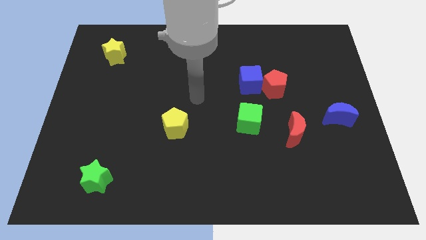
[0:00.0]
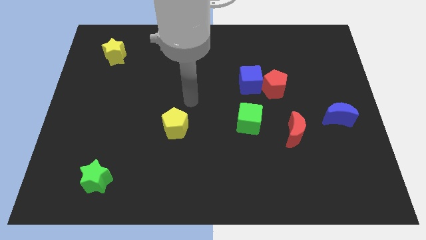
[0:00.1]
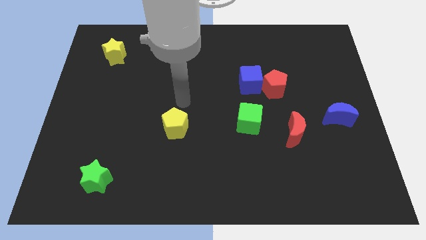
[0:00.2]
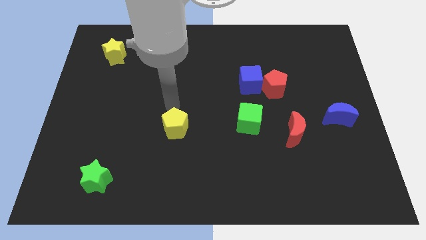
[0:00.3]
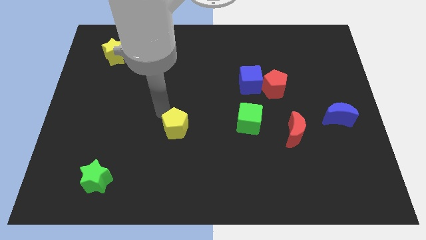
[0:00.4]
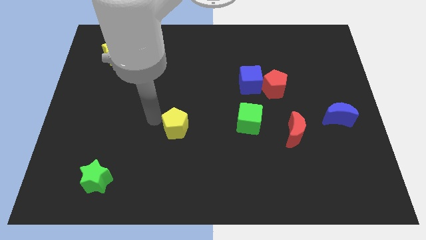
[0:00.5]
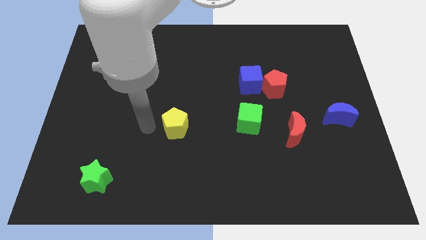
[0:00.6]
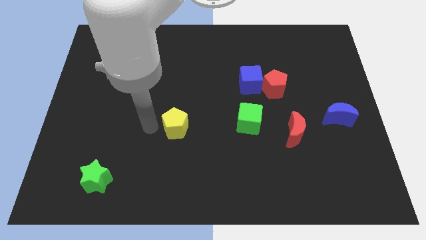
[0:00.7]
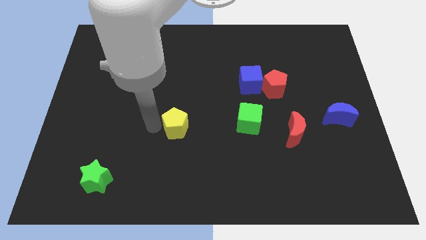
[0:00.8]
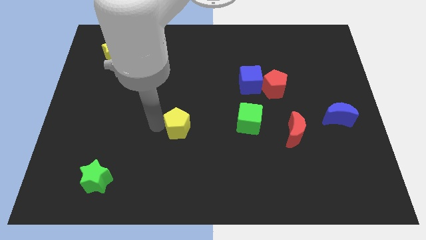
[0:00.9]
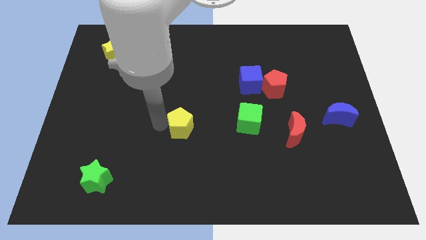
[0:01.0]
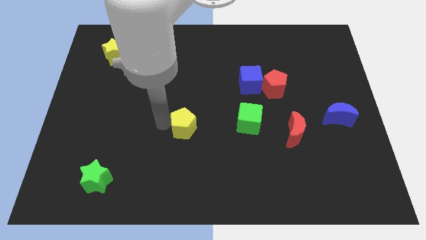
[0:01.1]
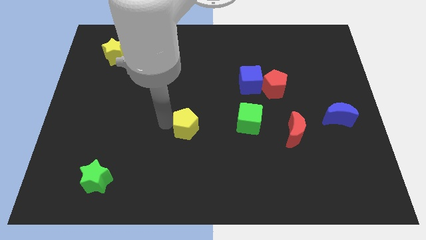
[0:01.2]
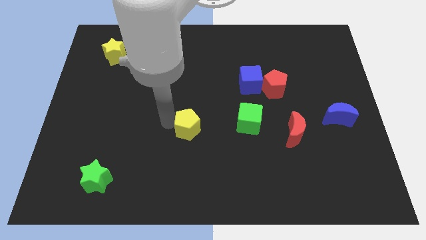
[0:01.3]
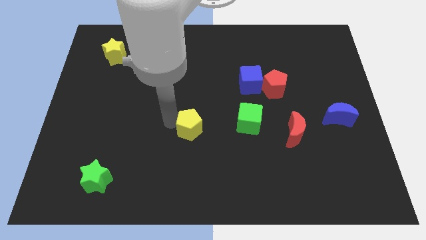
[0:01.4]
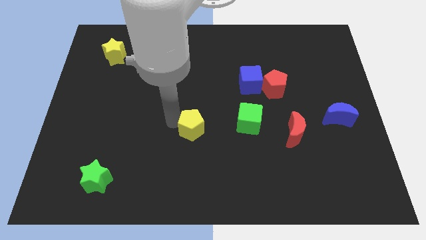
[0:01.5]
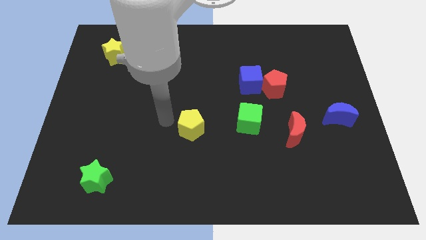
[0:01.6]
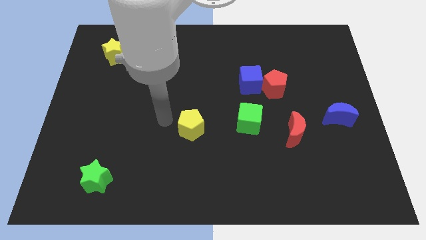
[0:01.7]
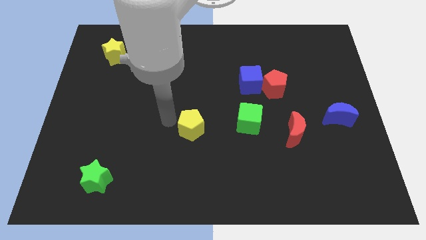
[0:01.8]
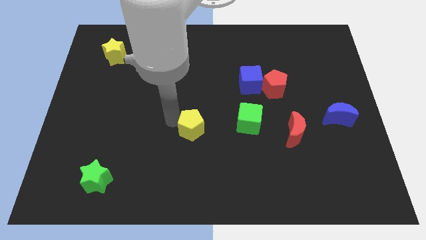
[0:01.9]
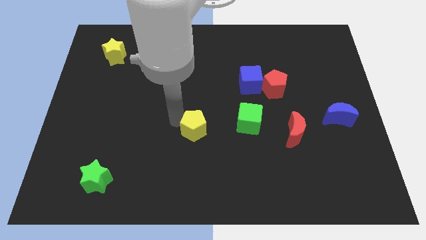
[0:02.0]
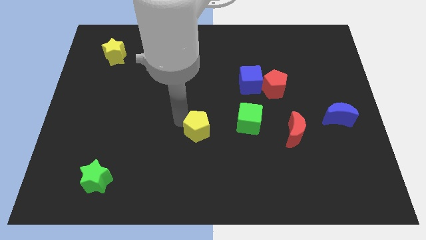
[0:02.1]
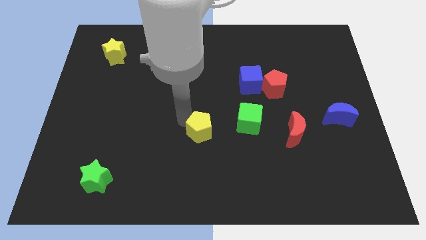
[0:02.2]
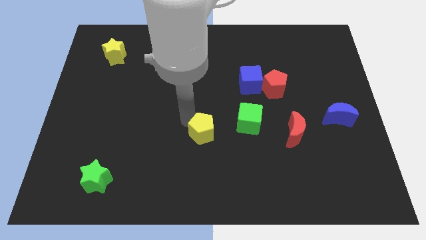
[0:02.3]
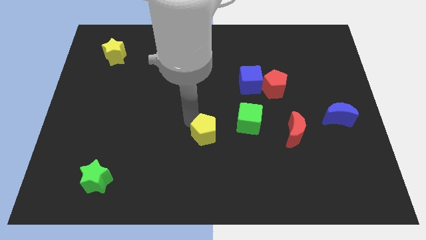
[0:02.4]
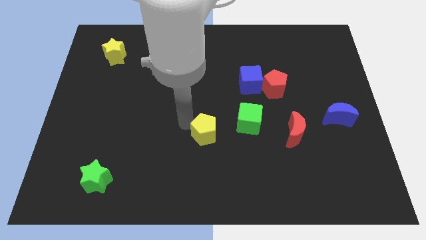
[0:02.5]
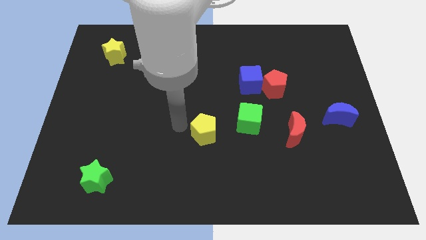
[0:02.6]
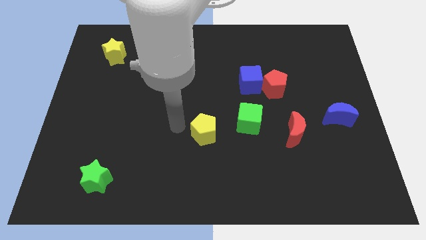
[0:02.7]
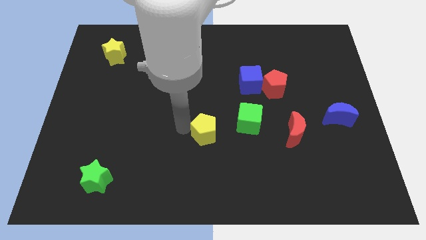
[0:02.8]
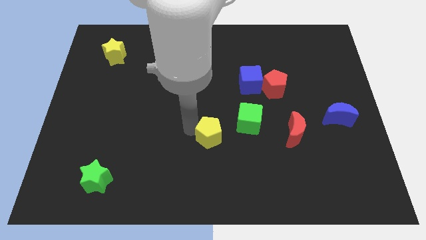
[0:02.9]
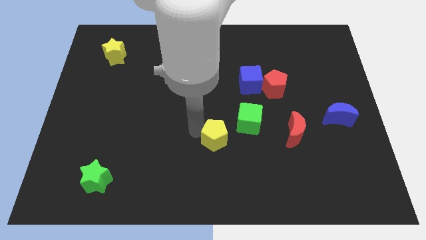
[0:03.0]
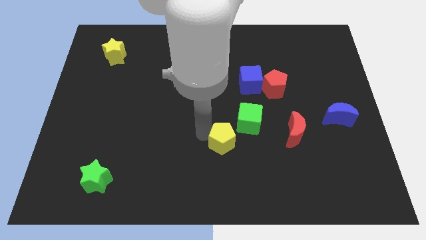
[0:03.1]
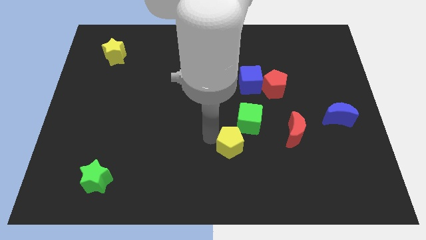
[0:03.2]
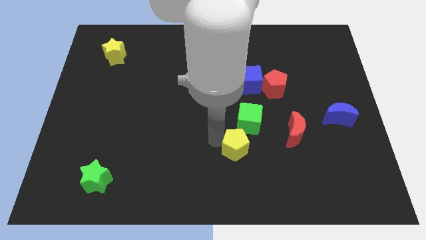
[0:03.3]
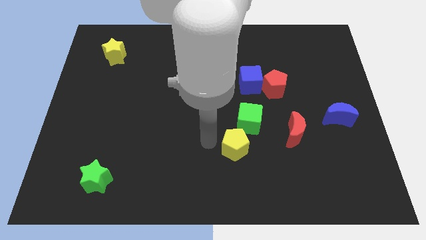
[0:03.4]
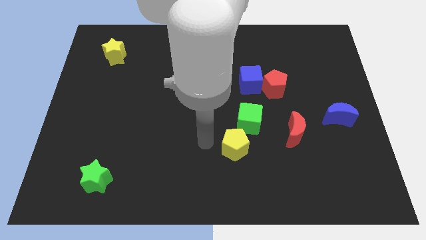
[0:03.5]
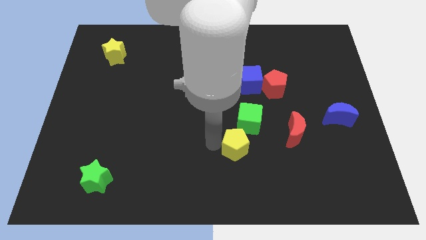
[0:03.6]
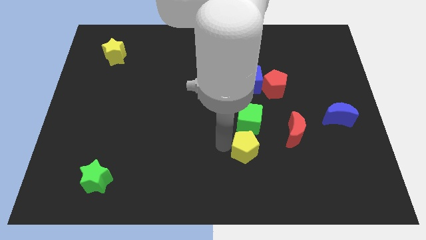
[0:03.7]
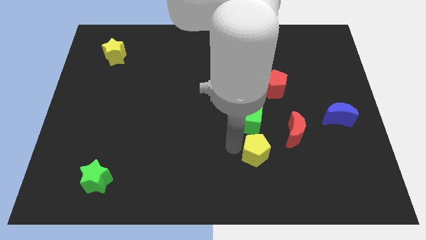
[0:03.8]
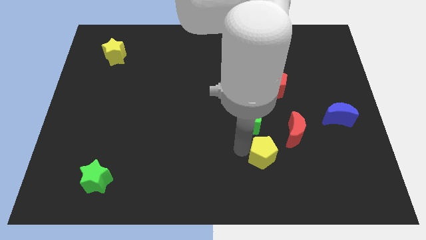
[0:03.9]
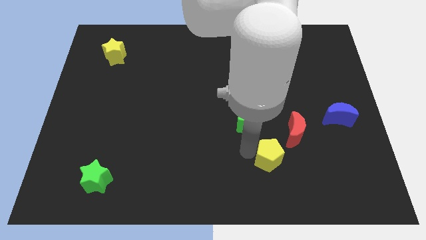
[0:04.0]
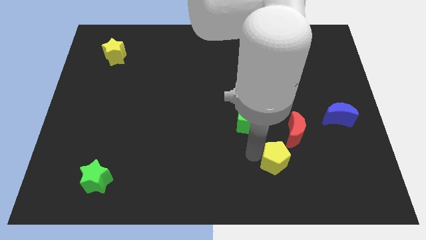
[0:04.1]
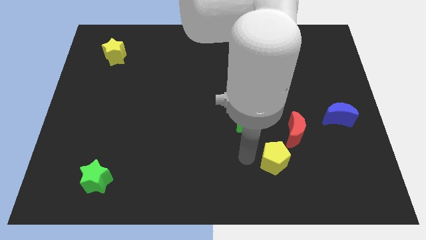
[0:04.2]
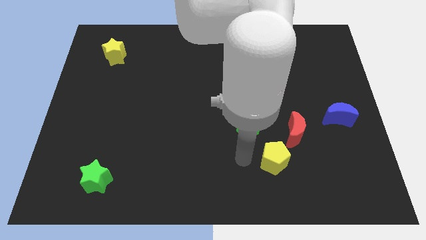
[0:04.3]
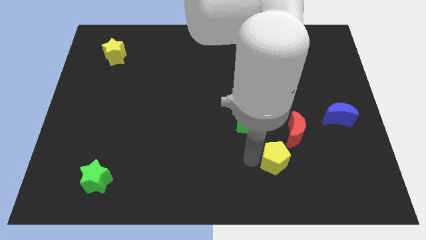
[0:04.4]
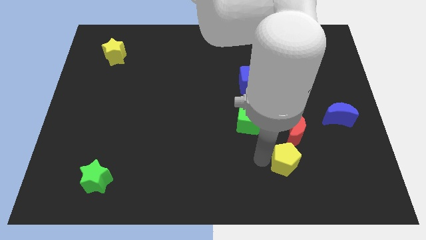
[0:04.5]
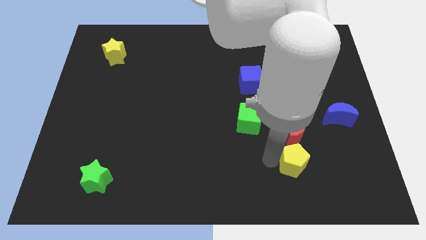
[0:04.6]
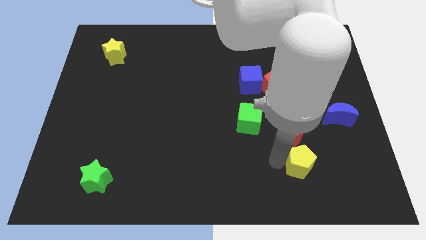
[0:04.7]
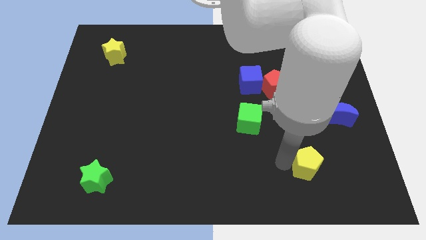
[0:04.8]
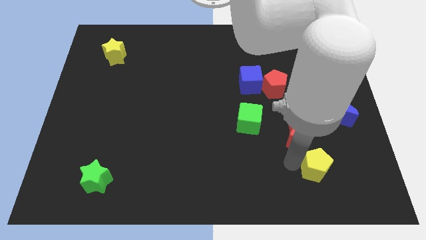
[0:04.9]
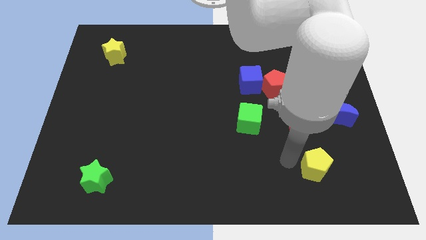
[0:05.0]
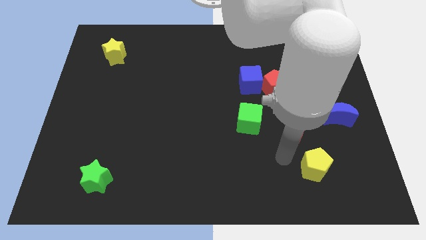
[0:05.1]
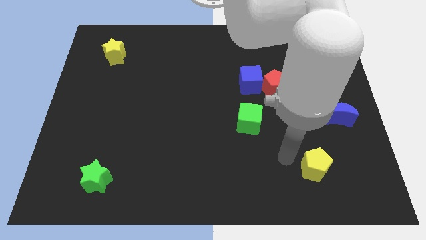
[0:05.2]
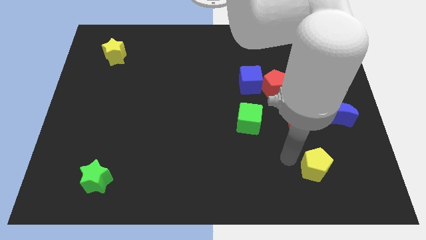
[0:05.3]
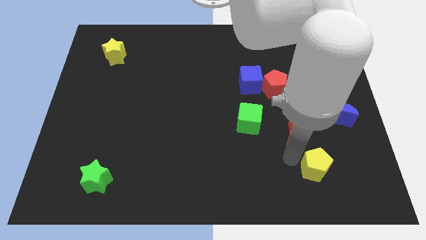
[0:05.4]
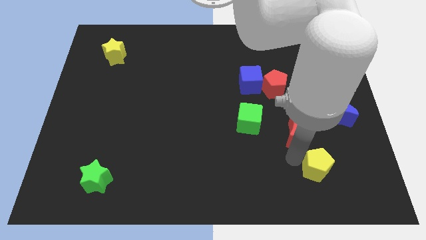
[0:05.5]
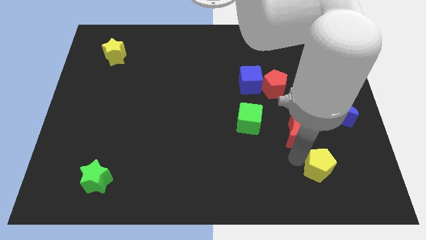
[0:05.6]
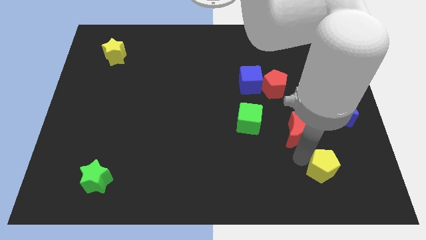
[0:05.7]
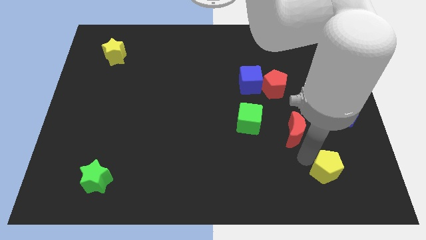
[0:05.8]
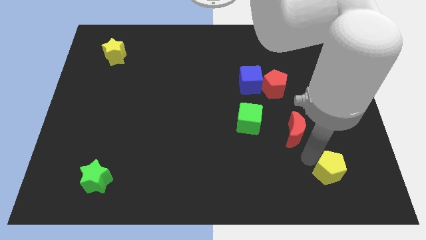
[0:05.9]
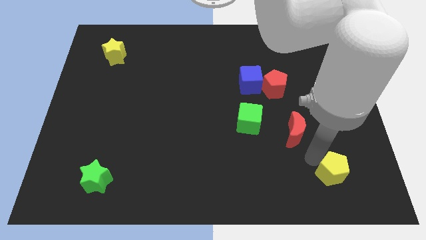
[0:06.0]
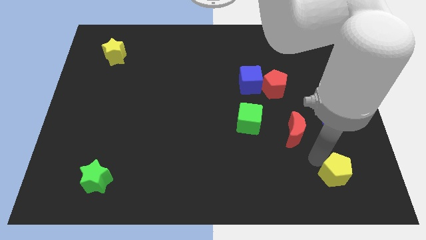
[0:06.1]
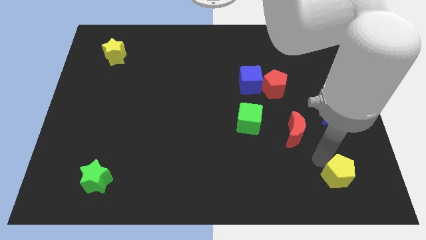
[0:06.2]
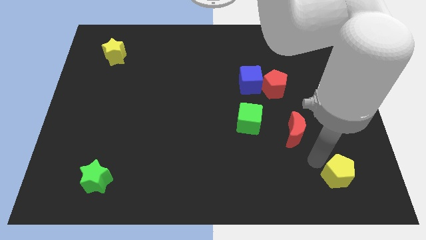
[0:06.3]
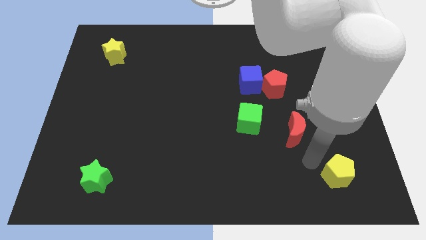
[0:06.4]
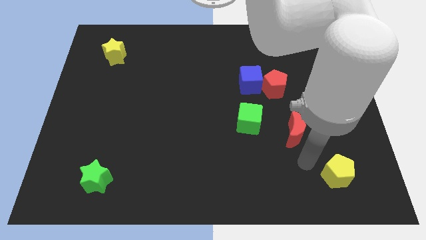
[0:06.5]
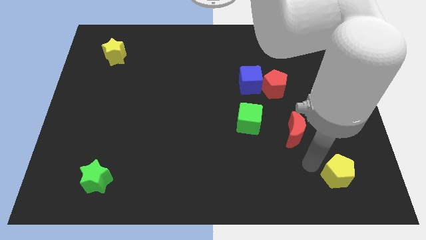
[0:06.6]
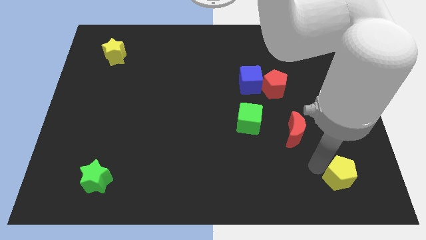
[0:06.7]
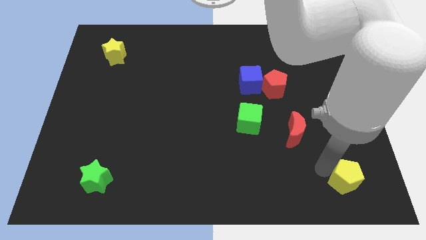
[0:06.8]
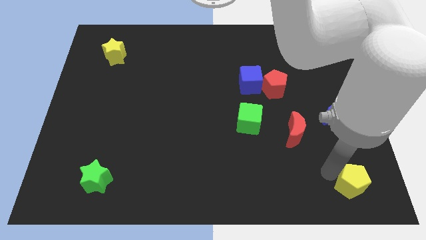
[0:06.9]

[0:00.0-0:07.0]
push the yellow pentagon to the bottom right

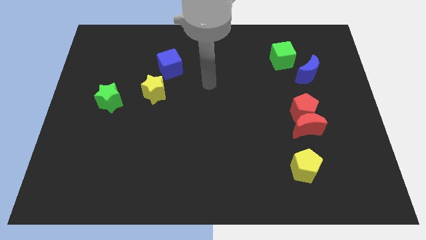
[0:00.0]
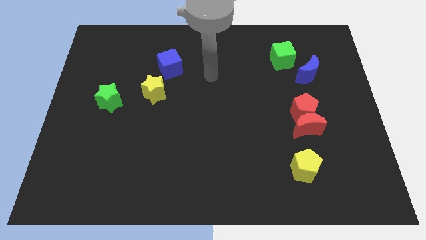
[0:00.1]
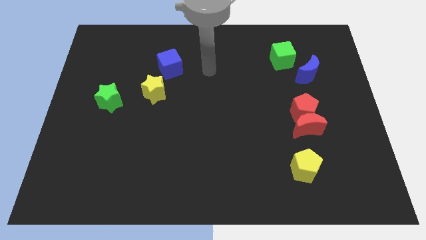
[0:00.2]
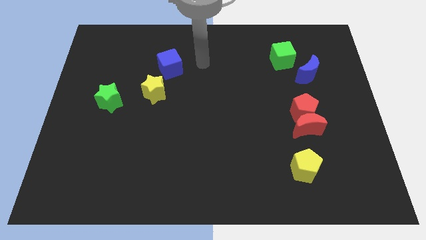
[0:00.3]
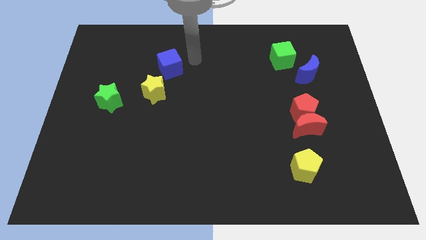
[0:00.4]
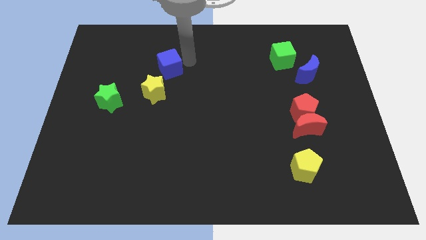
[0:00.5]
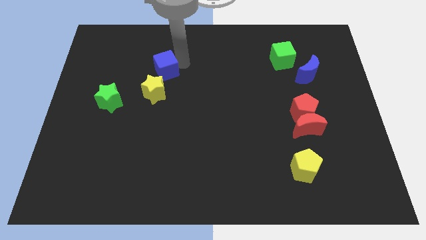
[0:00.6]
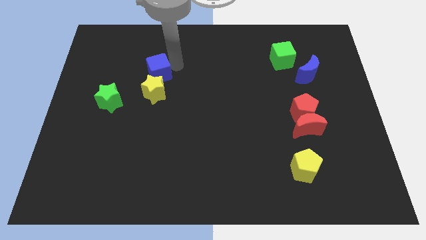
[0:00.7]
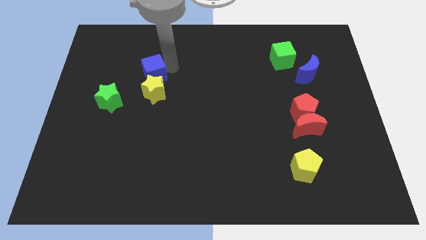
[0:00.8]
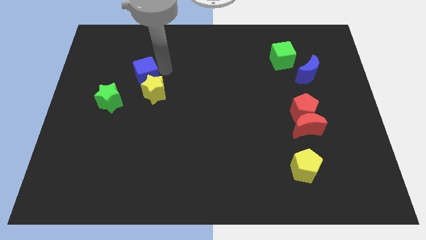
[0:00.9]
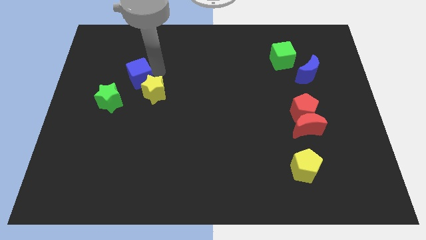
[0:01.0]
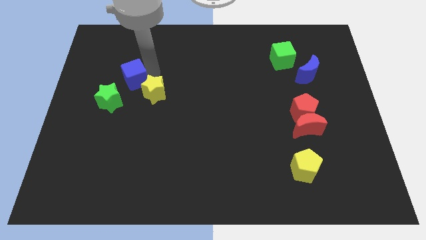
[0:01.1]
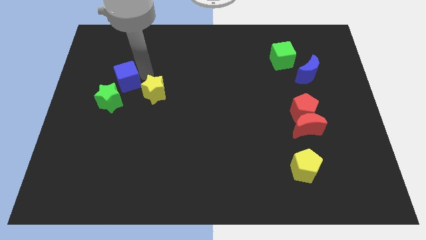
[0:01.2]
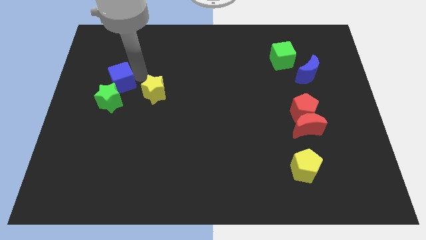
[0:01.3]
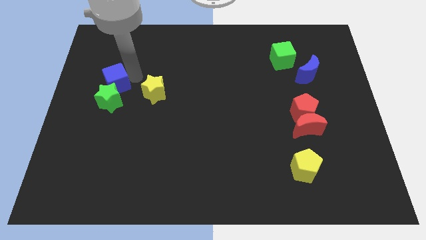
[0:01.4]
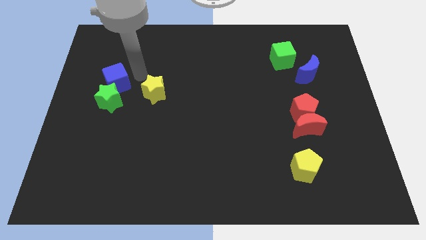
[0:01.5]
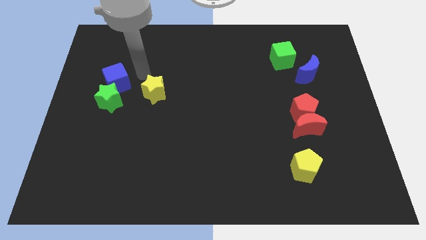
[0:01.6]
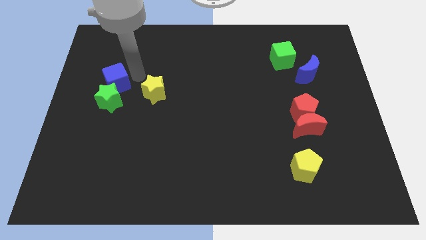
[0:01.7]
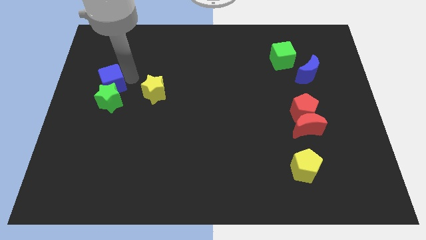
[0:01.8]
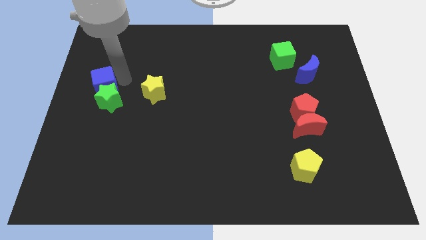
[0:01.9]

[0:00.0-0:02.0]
slide the blue cube to the left side of the board
